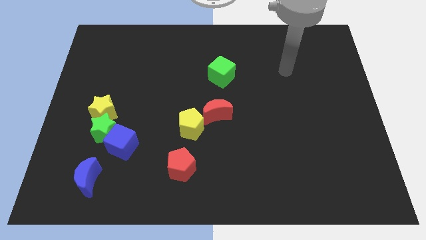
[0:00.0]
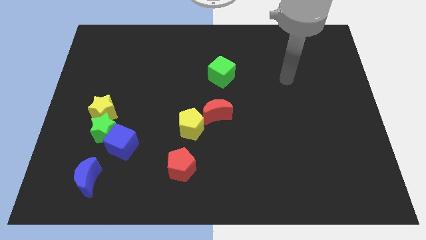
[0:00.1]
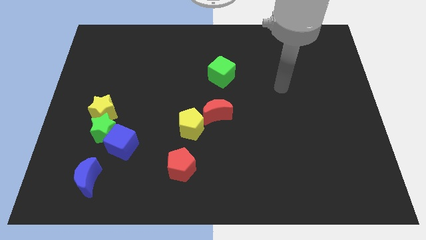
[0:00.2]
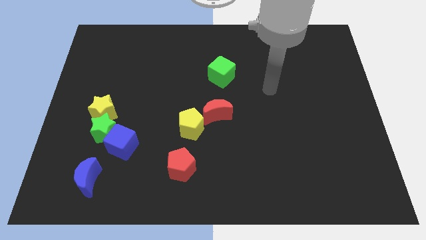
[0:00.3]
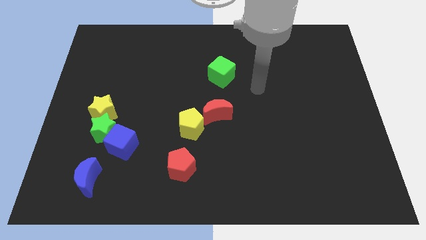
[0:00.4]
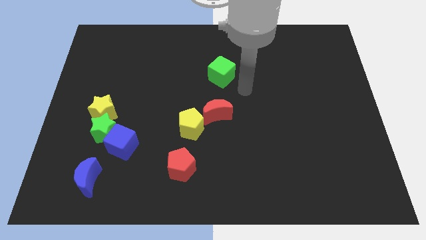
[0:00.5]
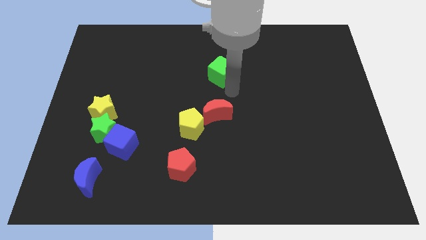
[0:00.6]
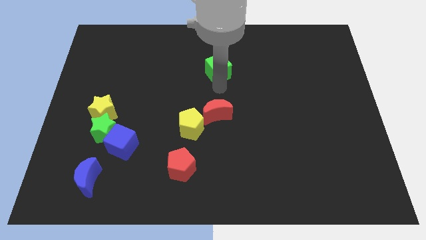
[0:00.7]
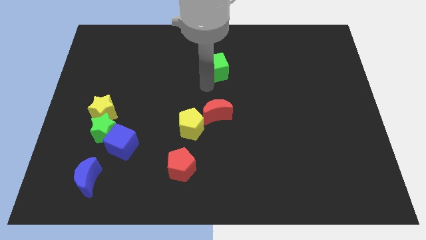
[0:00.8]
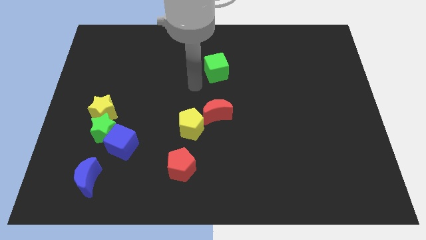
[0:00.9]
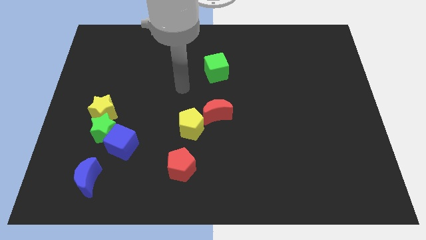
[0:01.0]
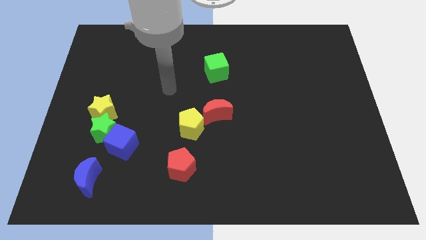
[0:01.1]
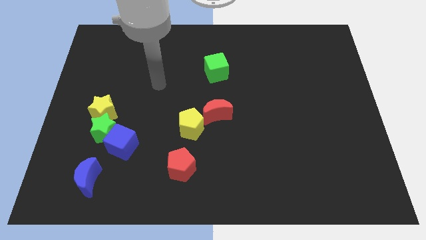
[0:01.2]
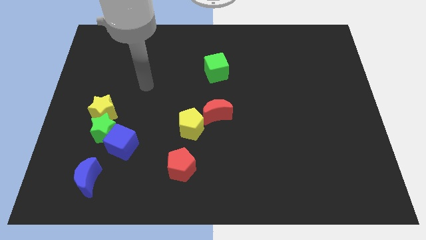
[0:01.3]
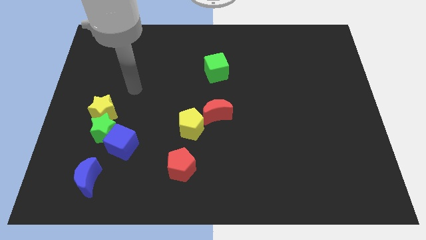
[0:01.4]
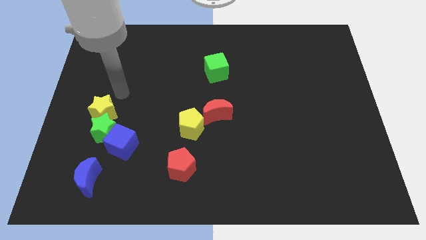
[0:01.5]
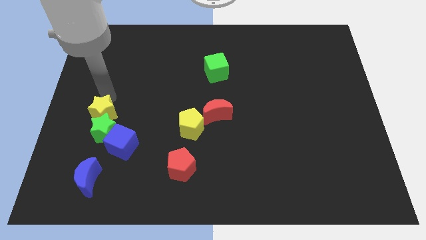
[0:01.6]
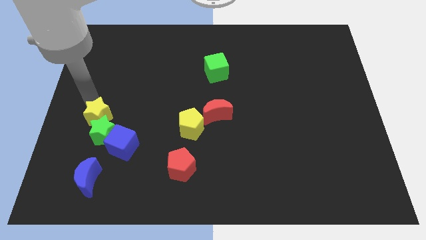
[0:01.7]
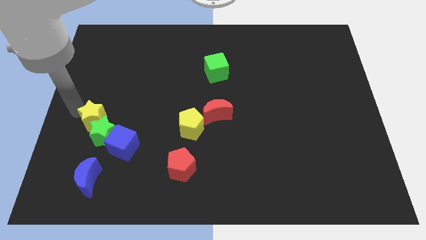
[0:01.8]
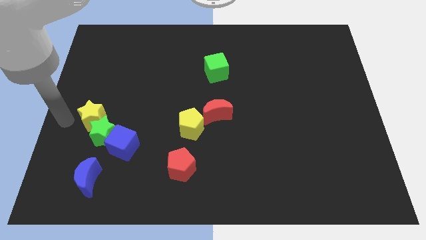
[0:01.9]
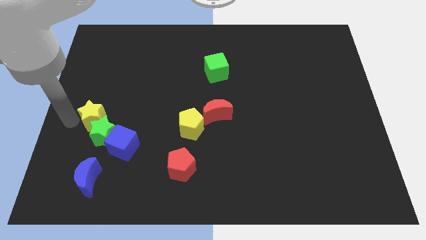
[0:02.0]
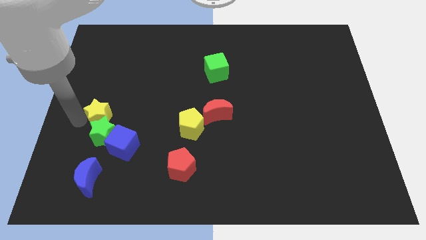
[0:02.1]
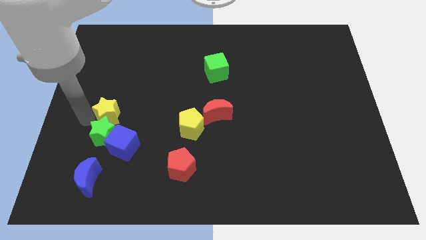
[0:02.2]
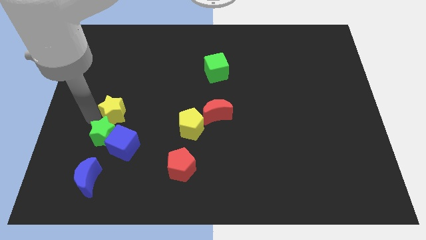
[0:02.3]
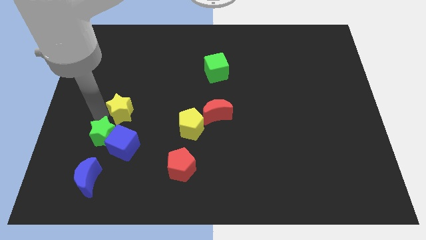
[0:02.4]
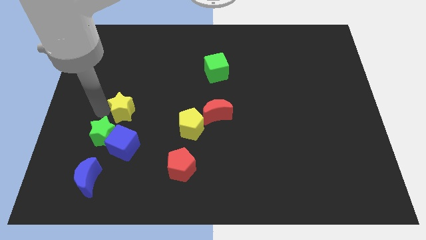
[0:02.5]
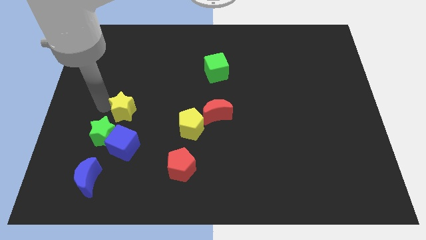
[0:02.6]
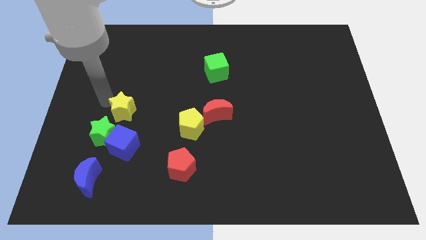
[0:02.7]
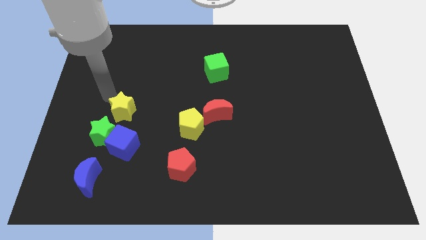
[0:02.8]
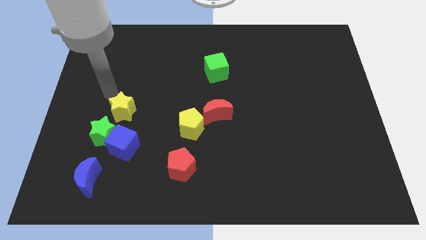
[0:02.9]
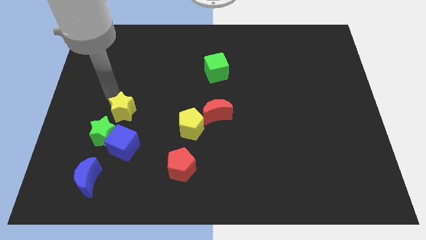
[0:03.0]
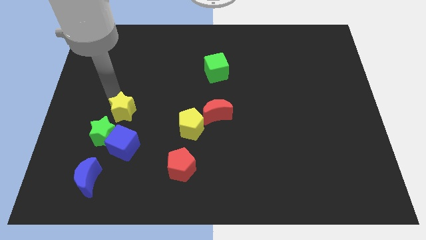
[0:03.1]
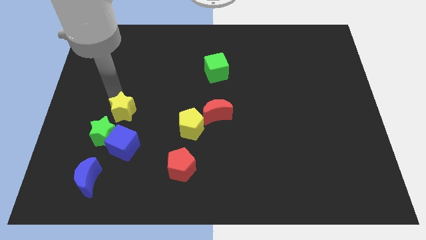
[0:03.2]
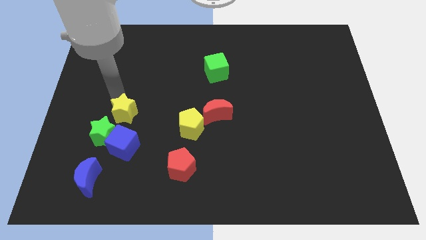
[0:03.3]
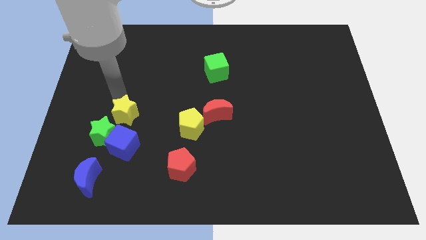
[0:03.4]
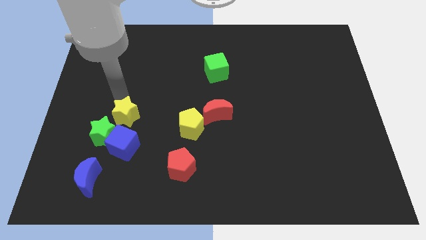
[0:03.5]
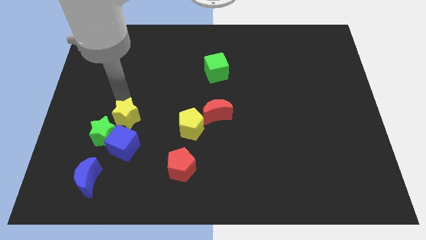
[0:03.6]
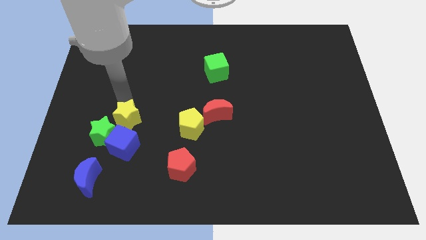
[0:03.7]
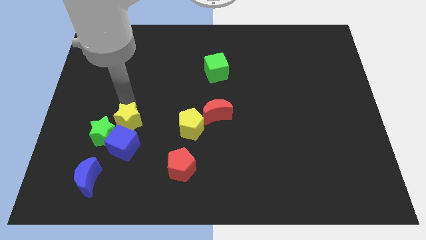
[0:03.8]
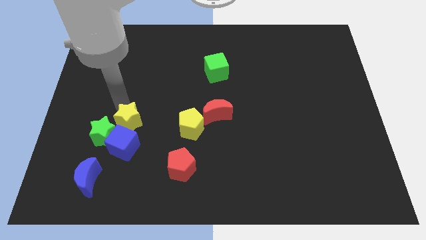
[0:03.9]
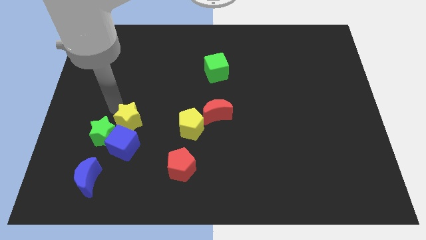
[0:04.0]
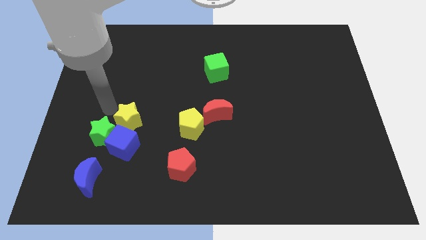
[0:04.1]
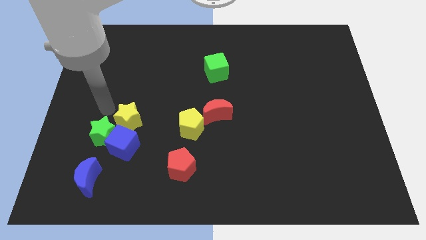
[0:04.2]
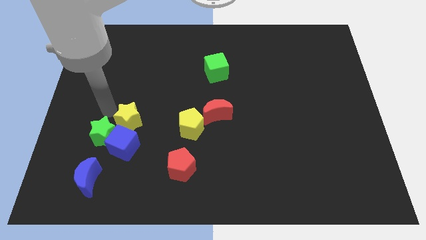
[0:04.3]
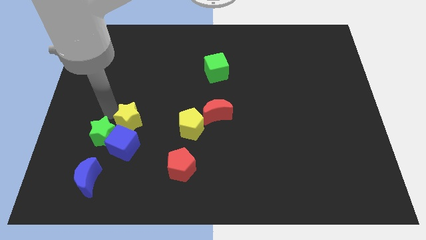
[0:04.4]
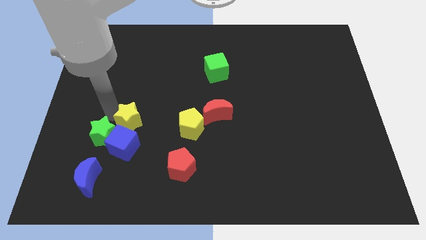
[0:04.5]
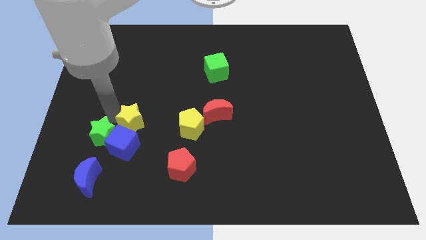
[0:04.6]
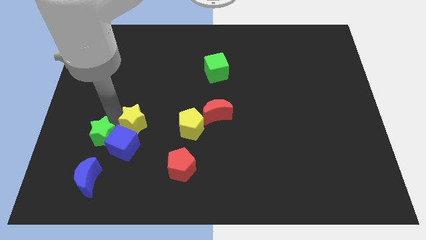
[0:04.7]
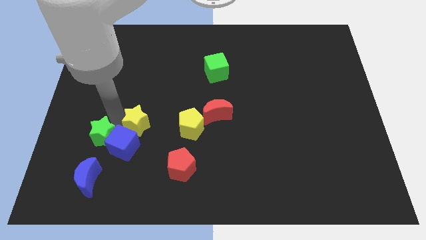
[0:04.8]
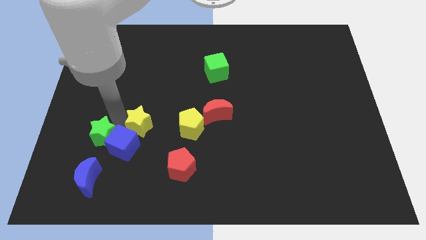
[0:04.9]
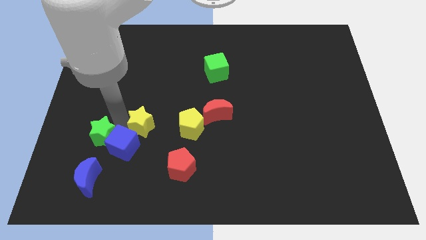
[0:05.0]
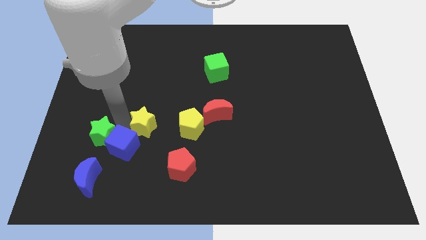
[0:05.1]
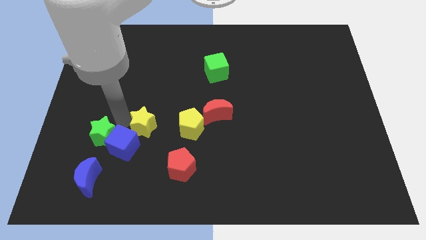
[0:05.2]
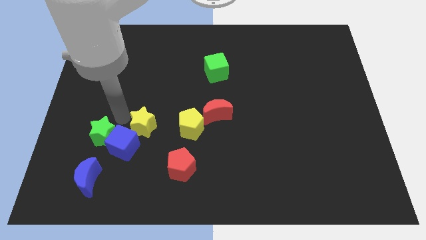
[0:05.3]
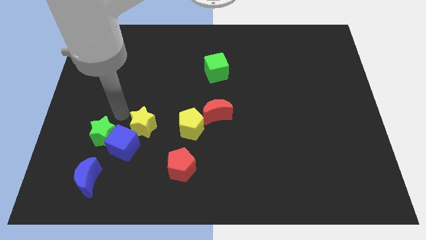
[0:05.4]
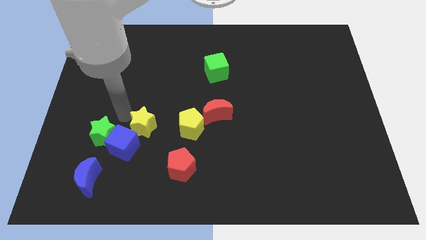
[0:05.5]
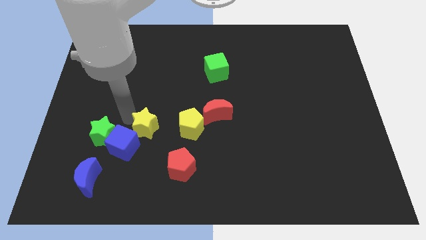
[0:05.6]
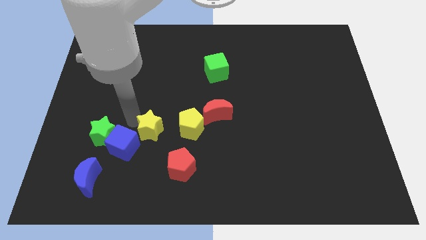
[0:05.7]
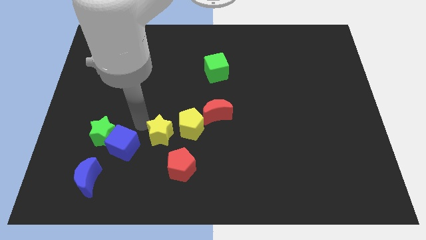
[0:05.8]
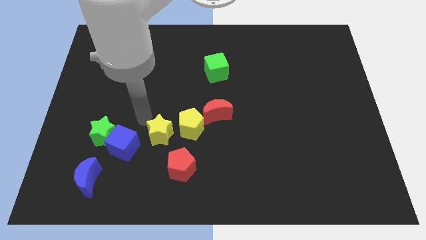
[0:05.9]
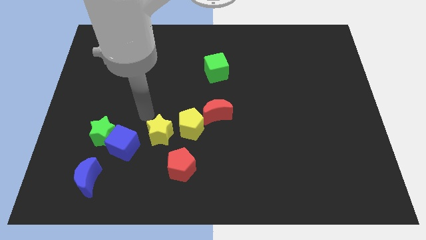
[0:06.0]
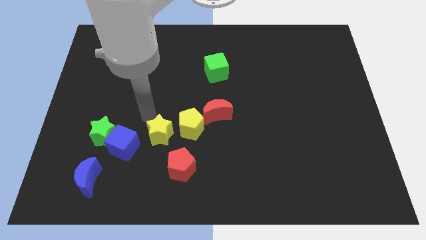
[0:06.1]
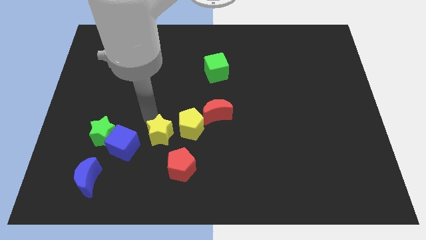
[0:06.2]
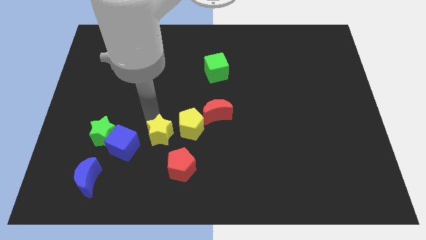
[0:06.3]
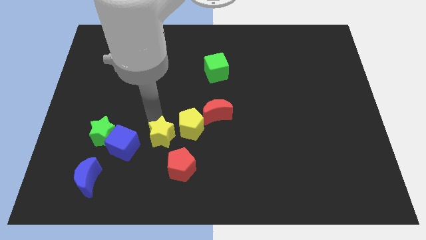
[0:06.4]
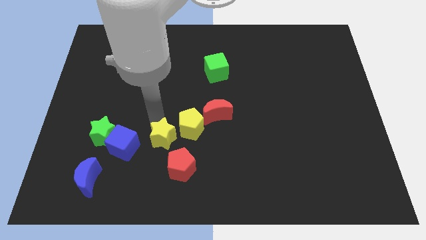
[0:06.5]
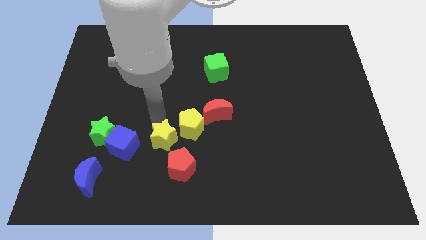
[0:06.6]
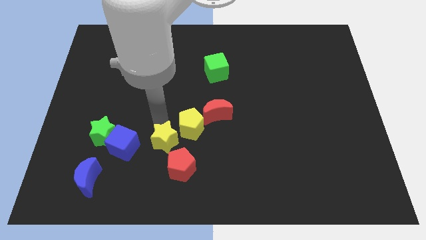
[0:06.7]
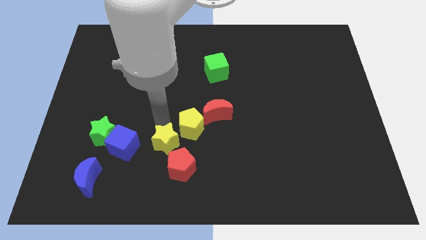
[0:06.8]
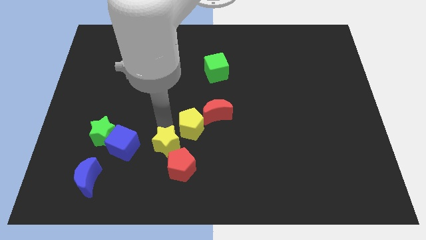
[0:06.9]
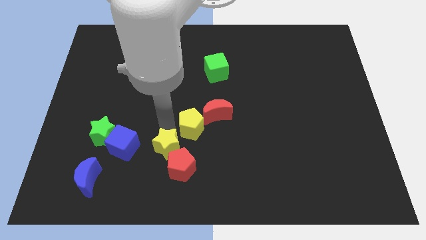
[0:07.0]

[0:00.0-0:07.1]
slide the yellow star to the red pentagon
